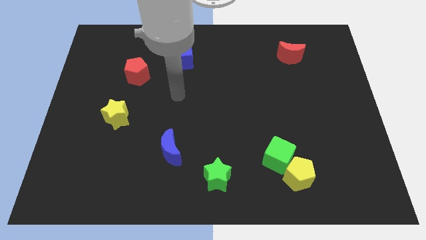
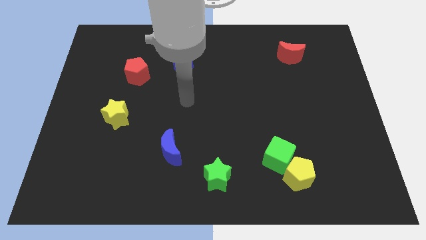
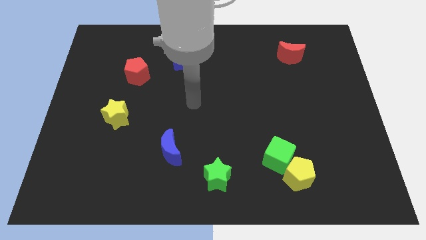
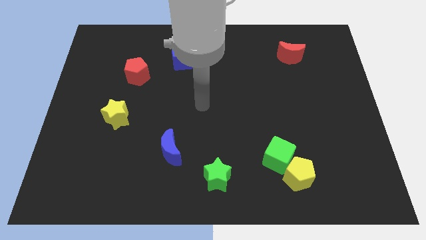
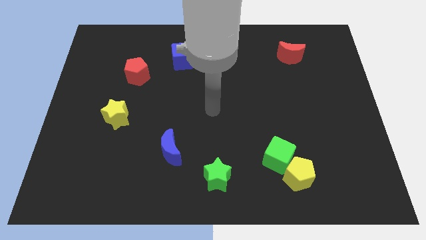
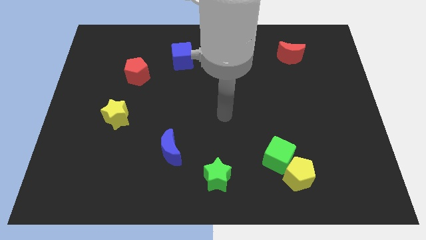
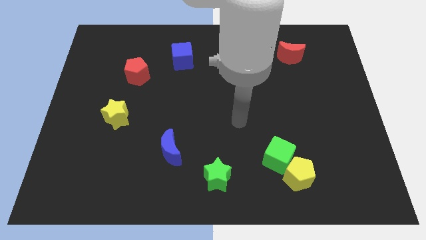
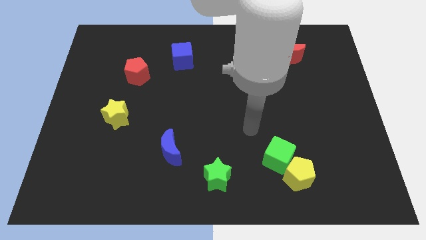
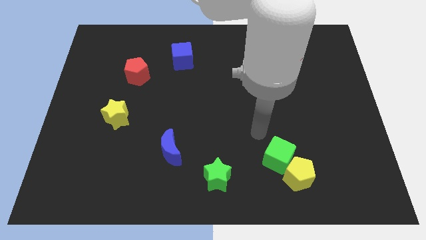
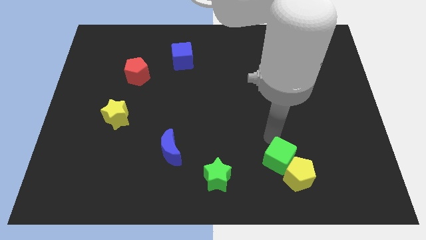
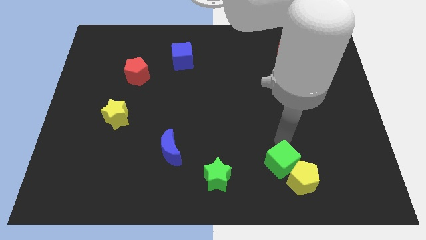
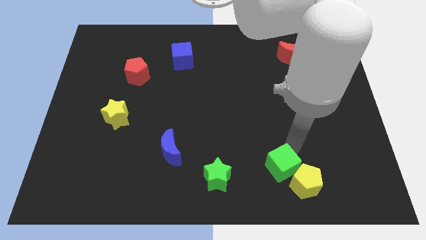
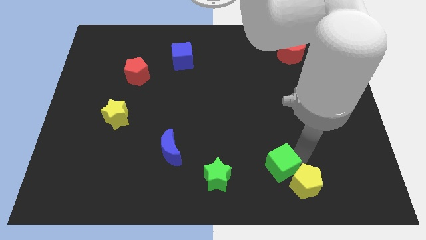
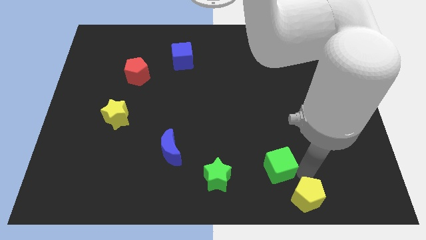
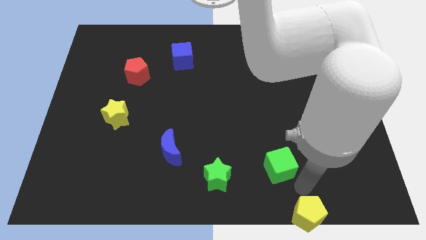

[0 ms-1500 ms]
move the green cube away from the yellow pentagon

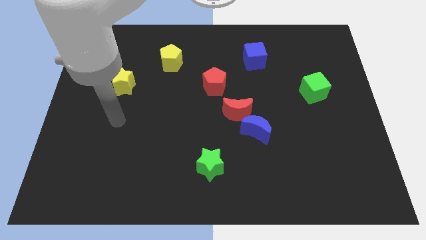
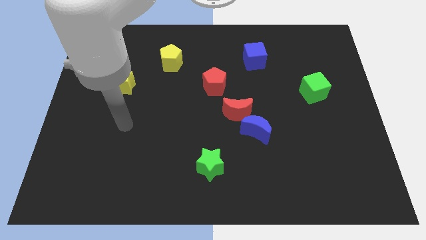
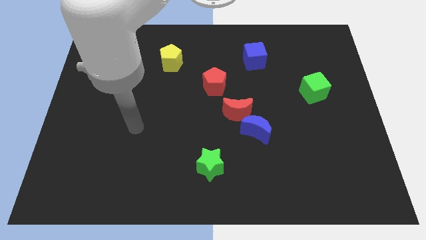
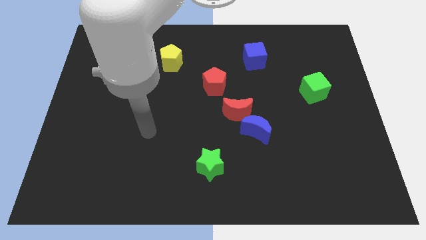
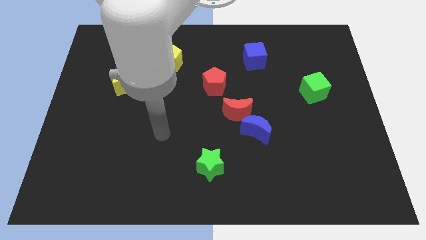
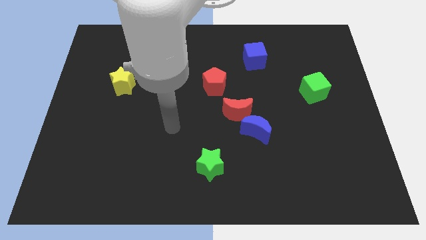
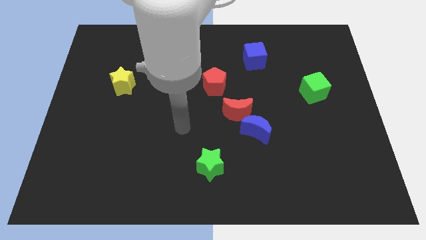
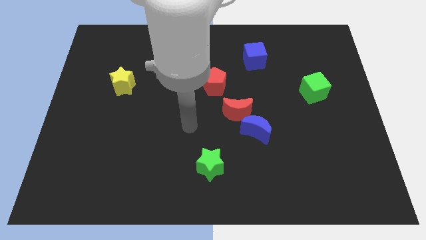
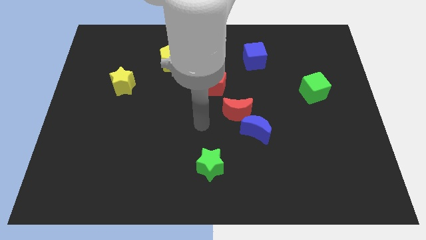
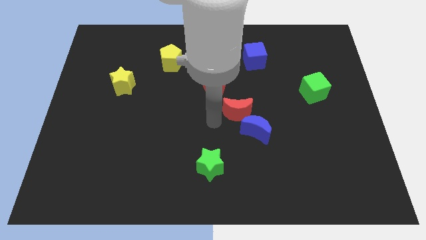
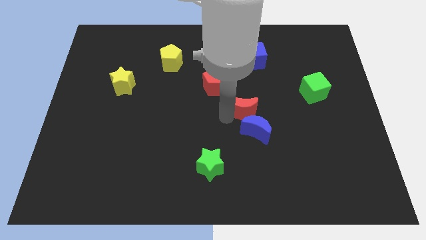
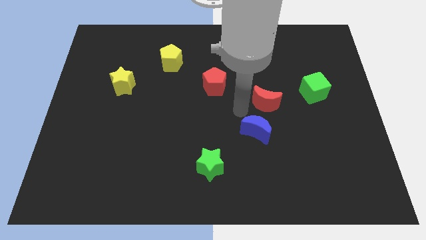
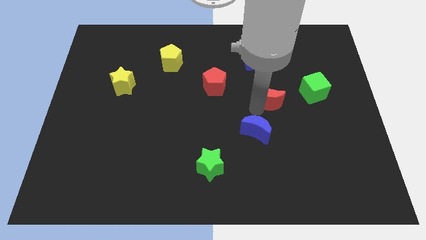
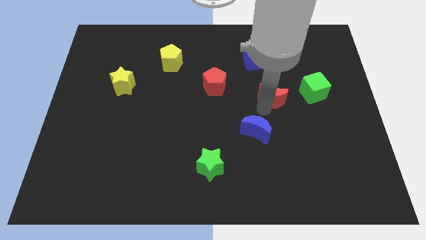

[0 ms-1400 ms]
separate the blue moon from the red moon

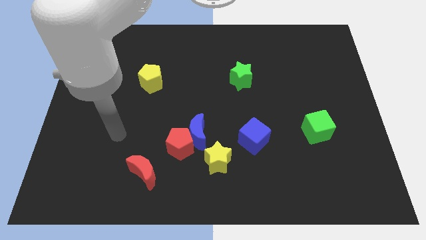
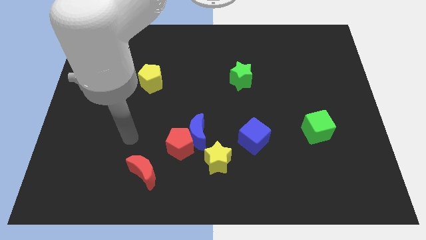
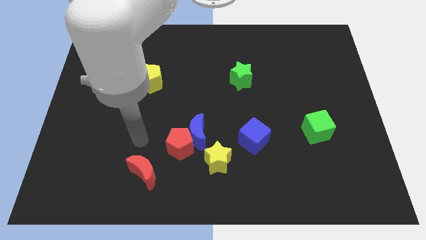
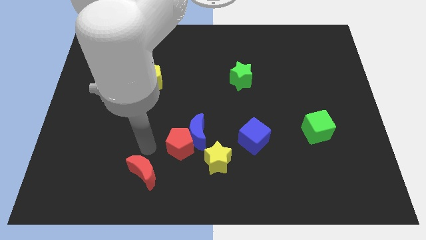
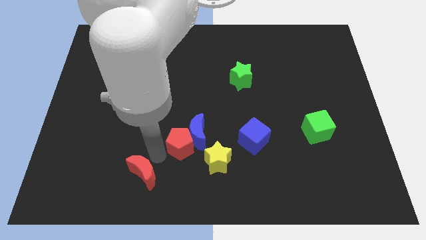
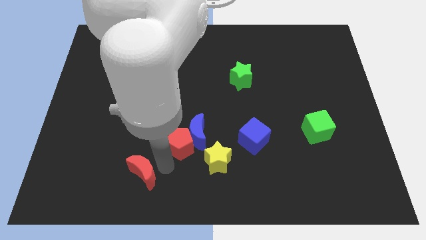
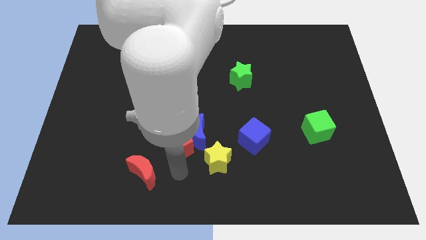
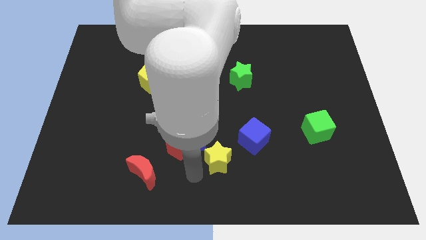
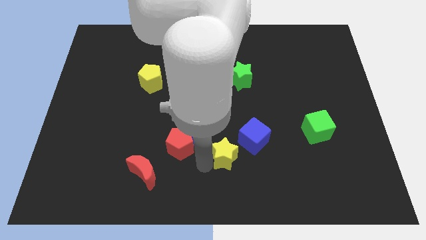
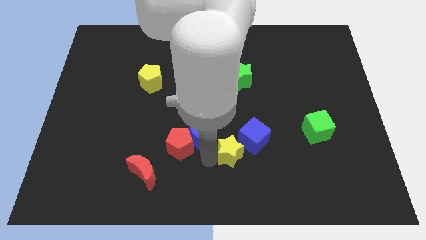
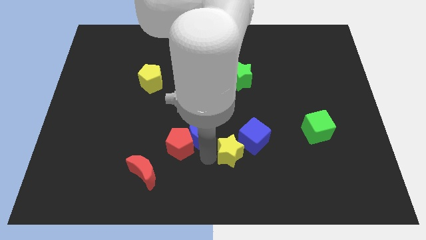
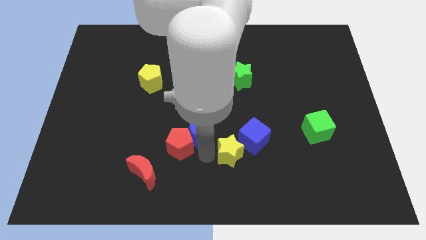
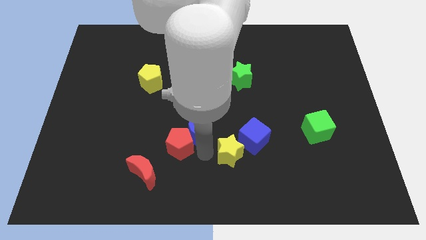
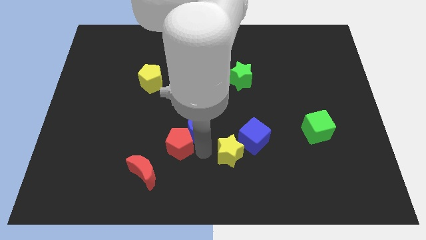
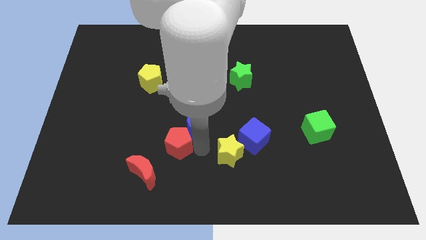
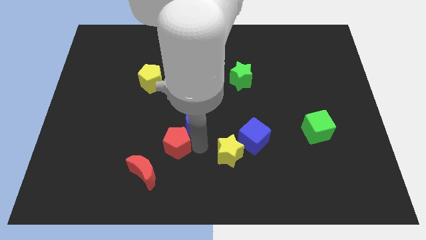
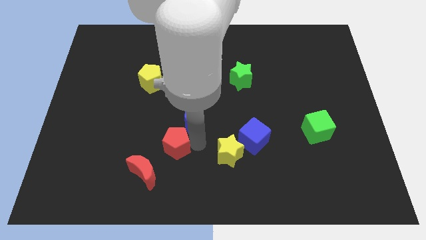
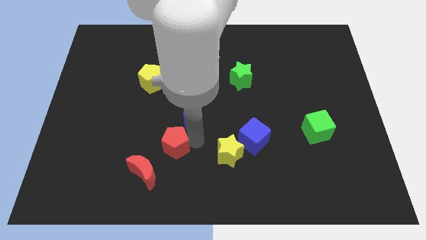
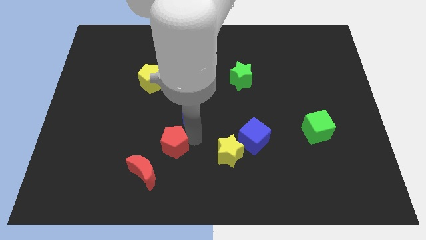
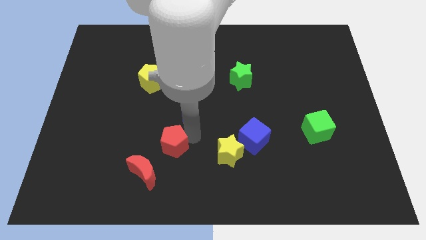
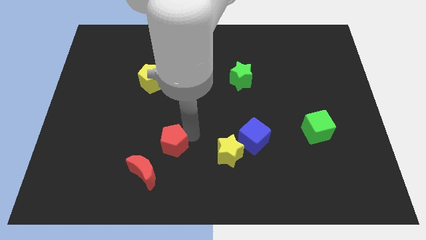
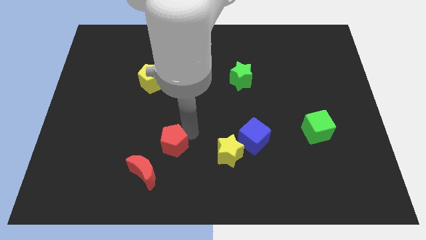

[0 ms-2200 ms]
pull the blue moon apart from the red pentagon and yellow star

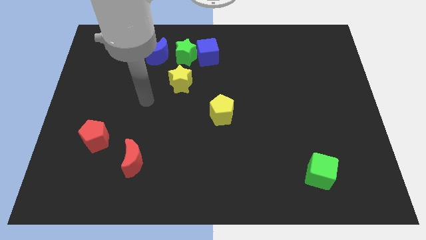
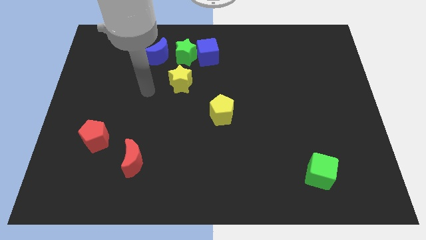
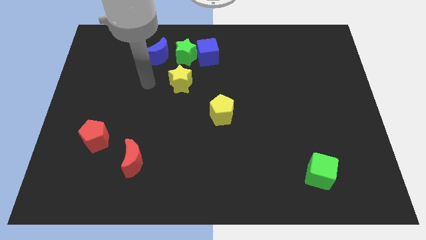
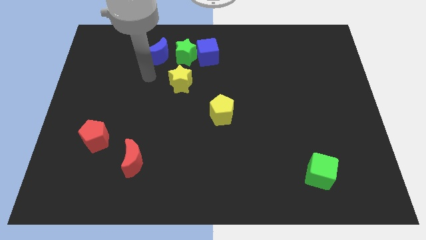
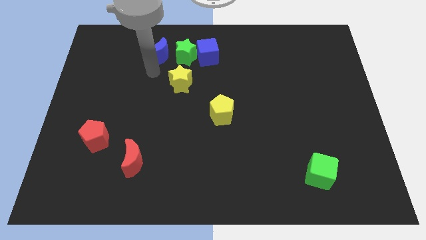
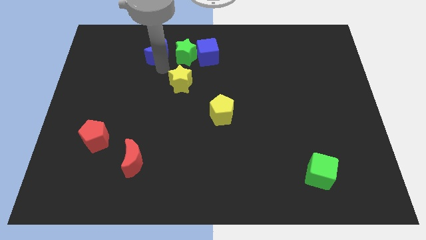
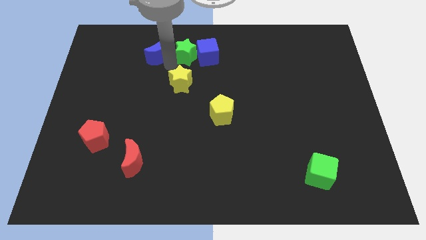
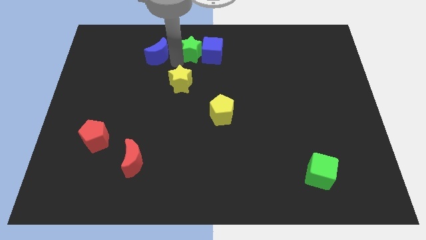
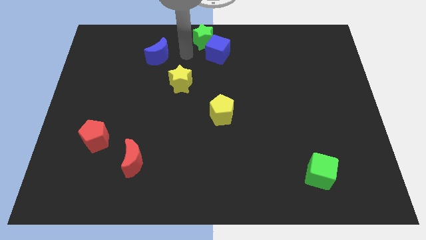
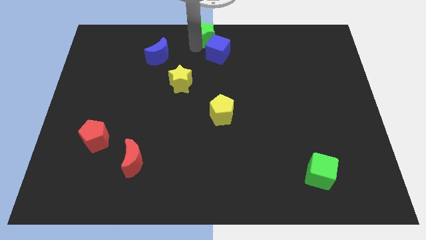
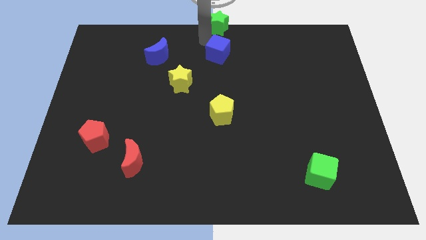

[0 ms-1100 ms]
separate the blue cube from the green star

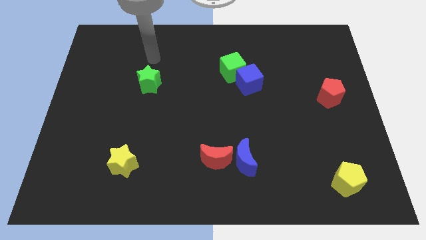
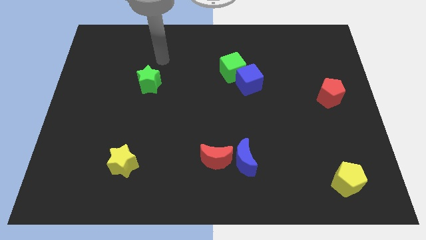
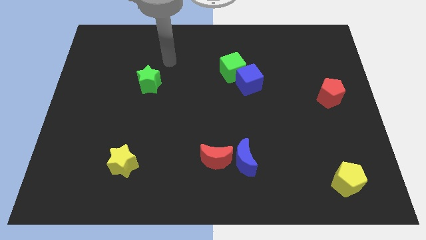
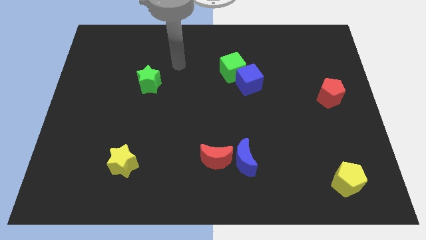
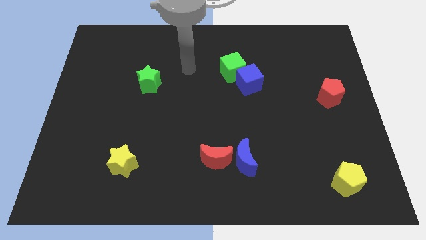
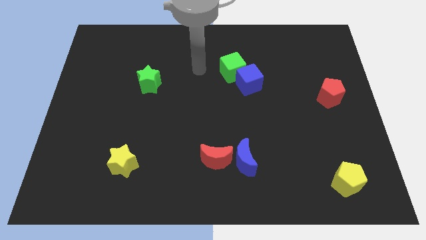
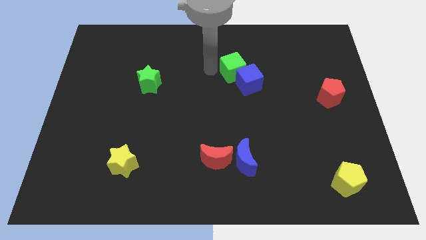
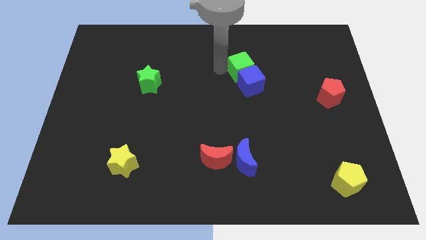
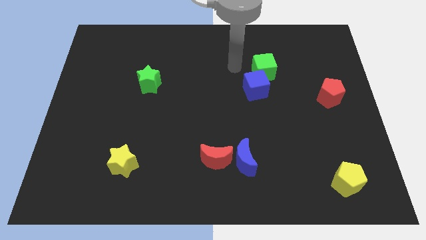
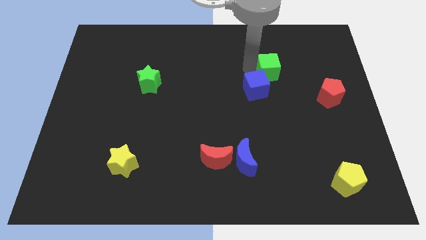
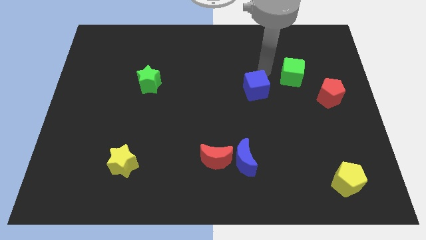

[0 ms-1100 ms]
pull the blue cube apart from the green cube

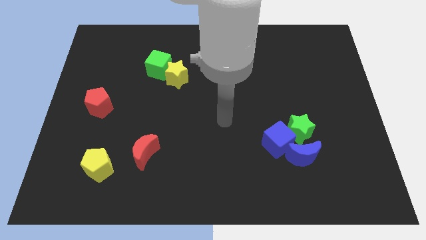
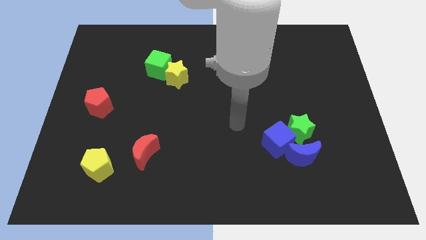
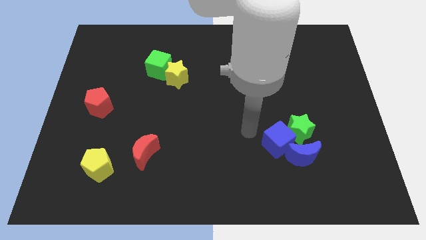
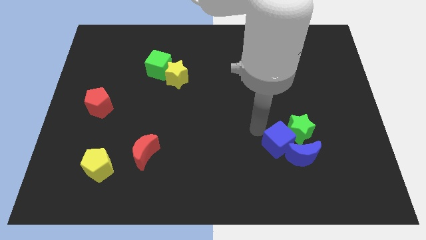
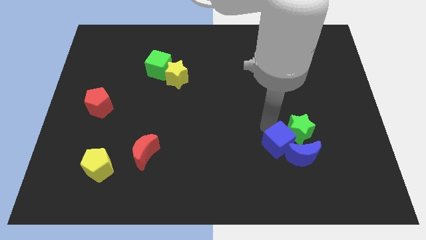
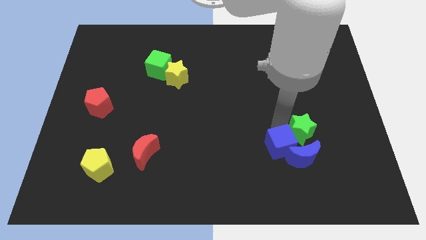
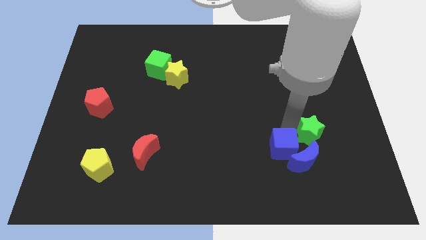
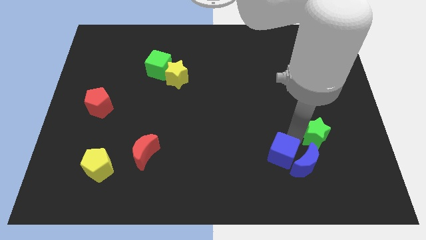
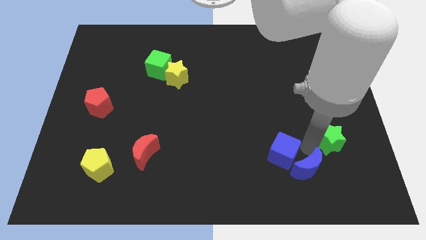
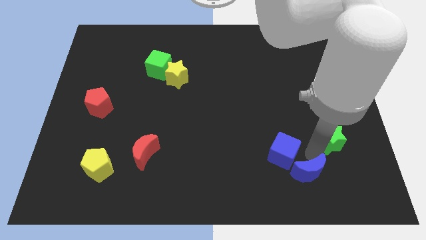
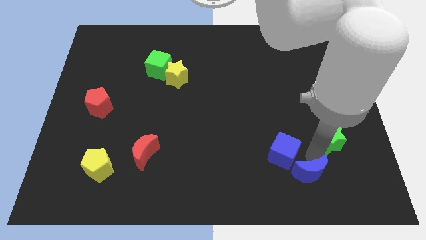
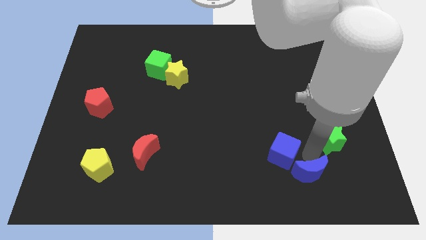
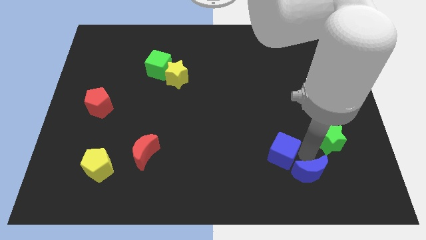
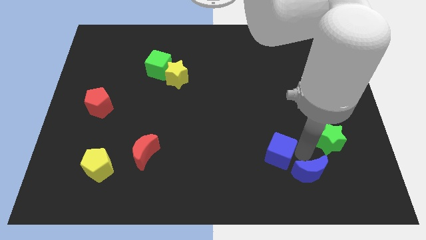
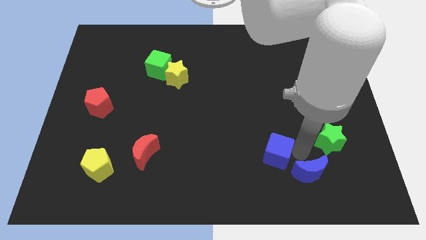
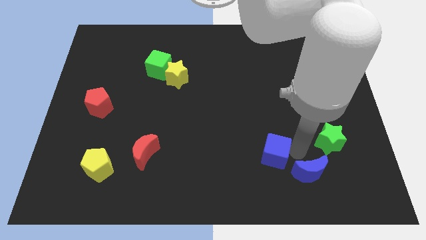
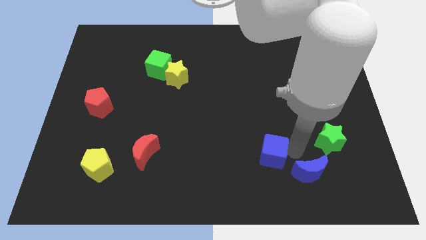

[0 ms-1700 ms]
move the blue cube away from the green star and blue moon

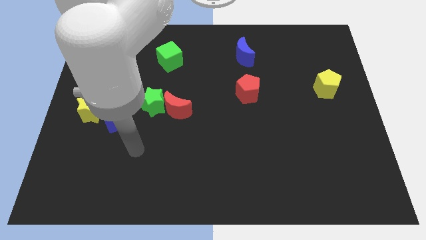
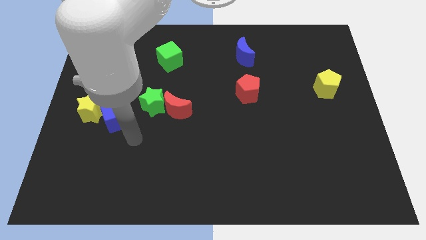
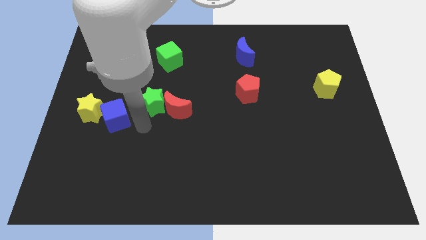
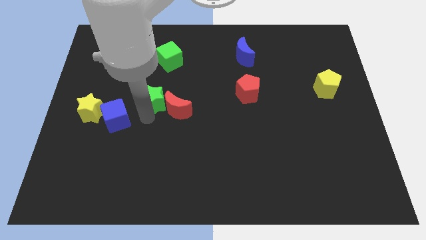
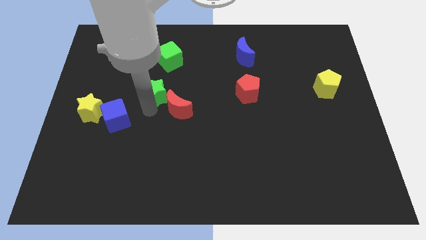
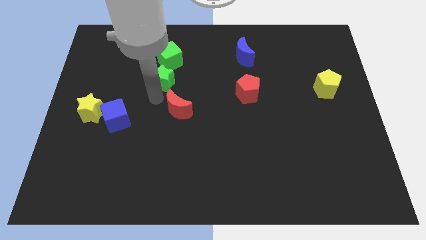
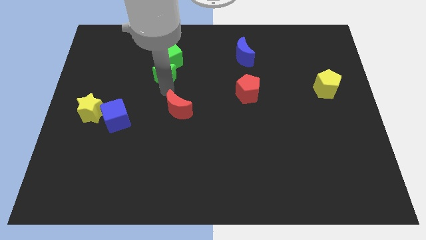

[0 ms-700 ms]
separate the red moon from the green star
